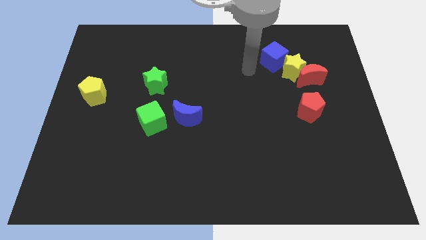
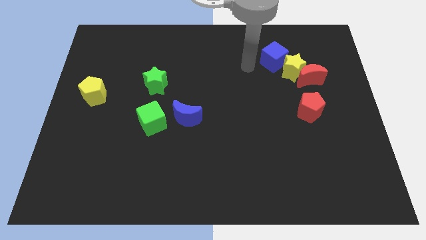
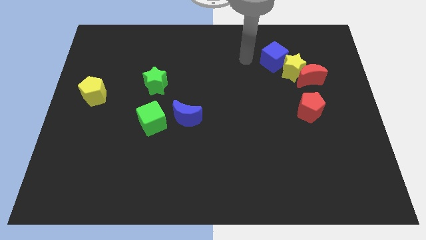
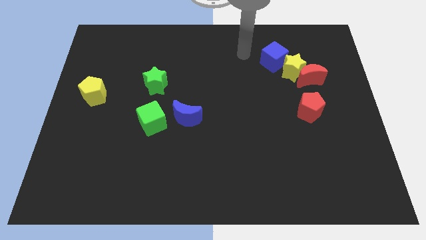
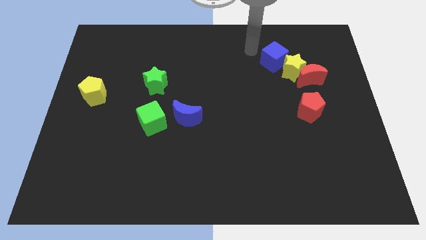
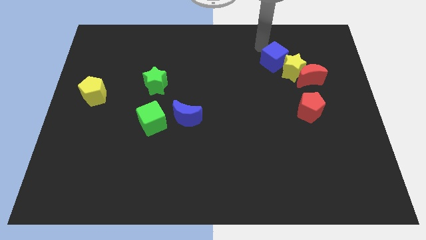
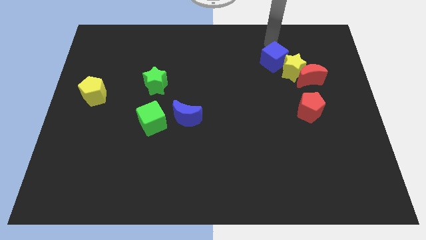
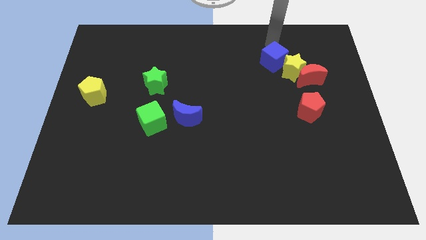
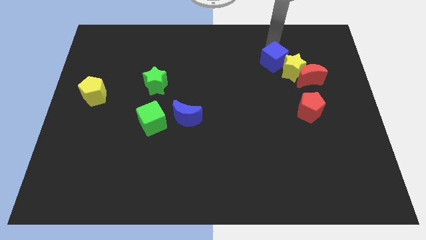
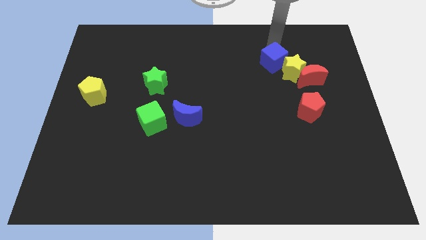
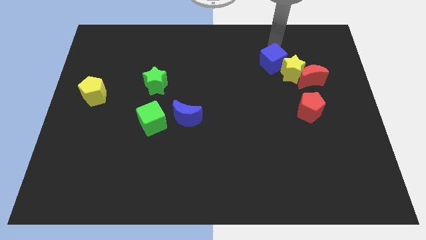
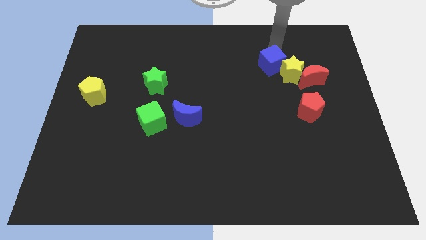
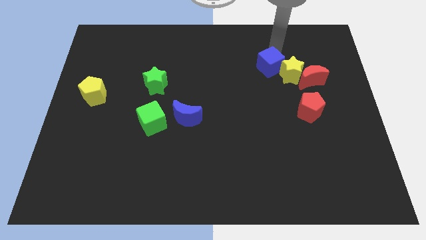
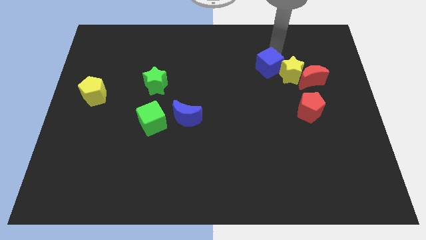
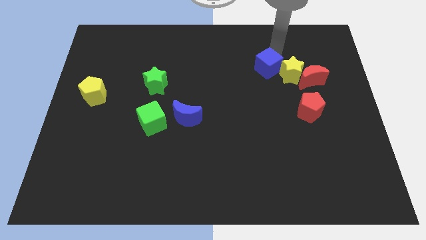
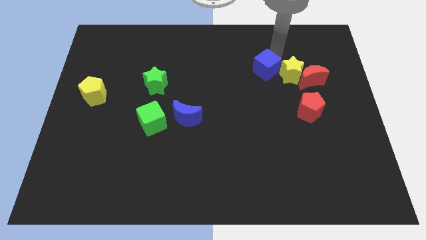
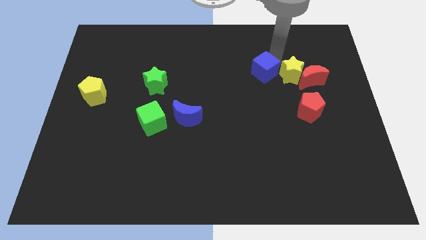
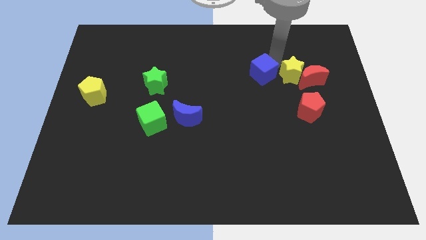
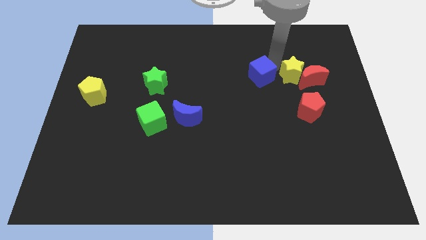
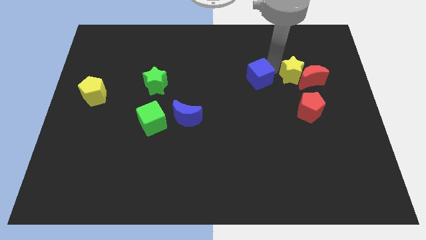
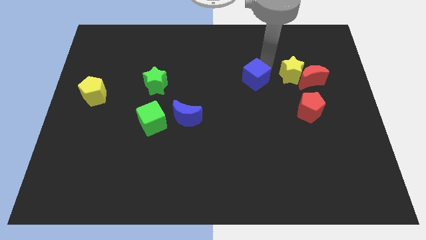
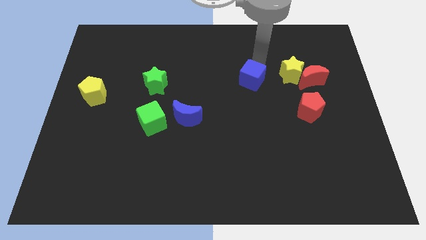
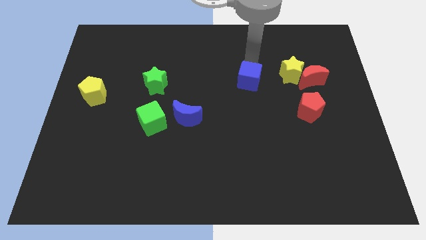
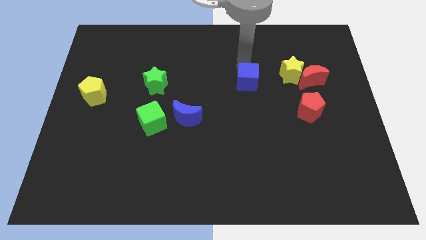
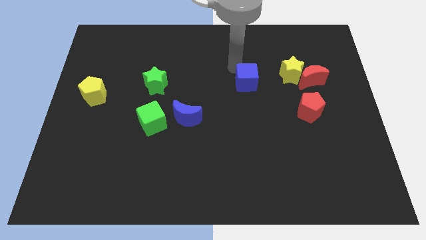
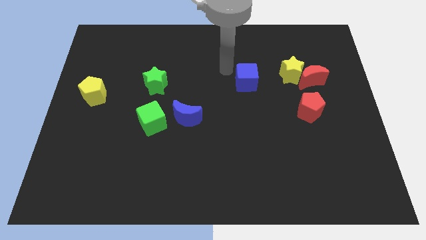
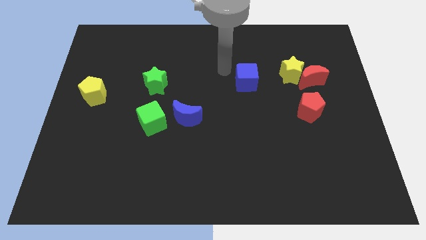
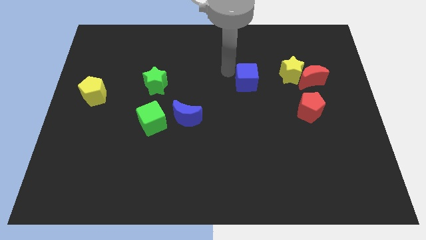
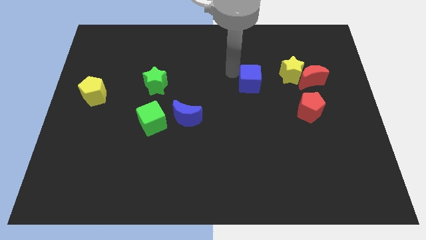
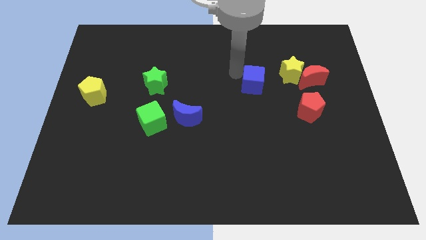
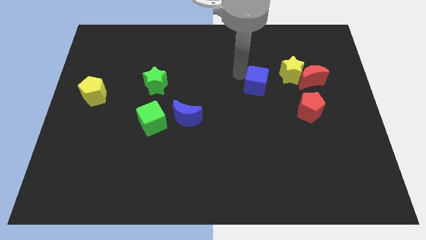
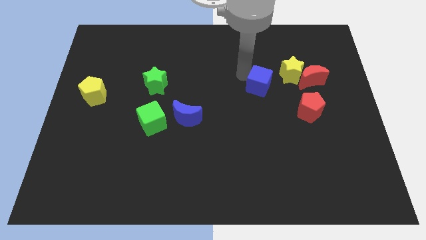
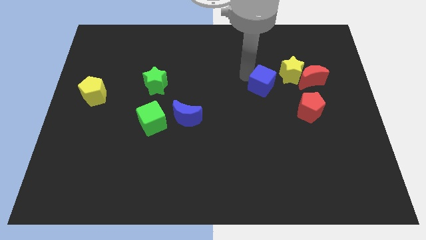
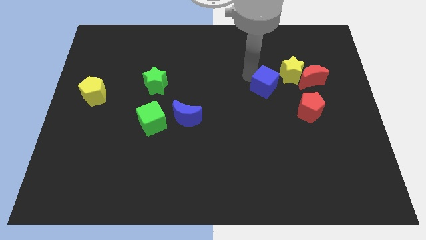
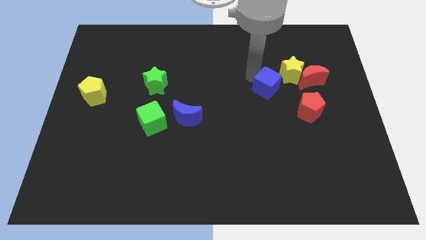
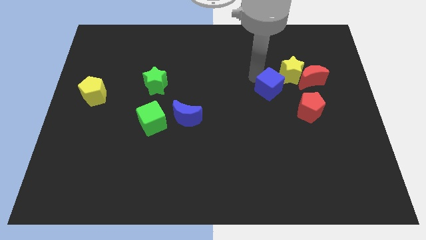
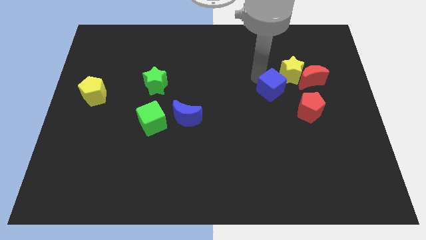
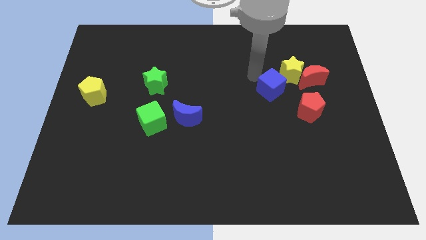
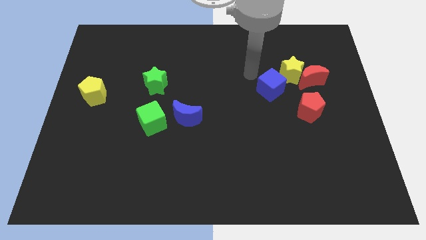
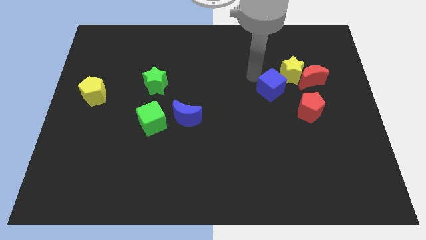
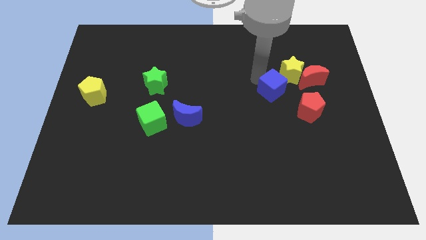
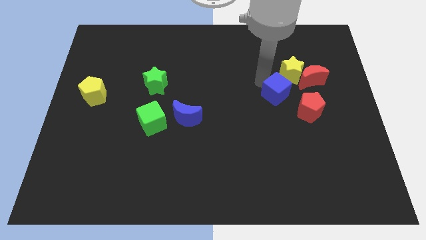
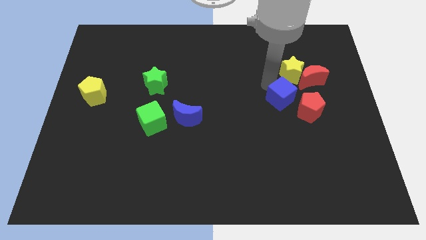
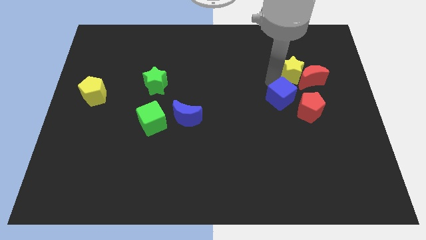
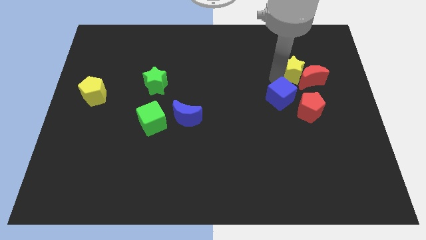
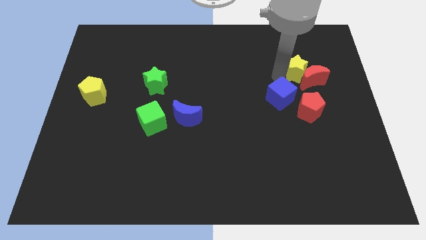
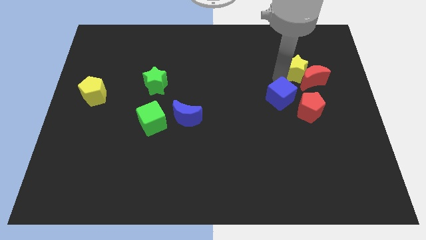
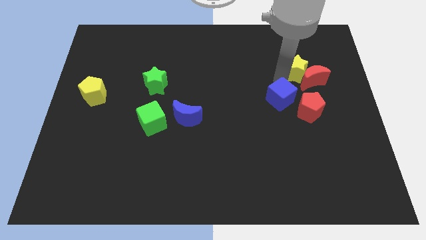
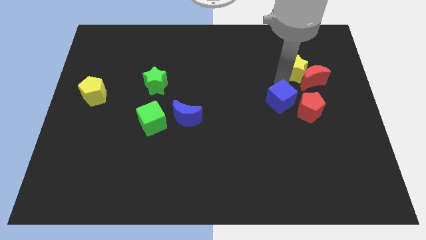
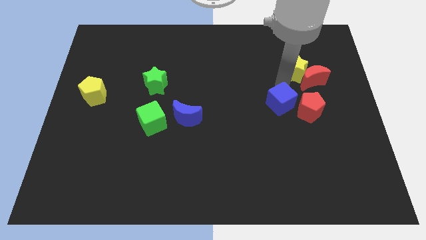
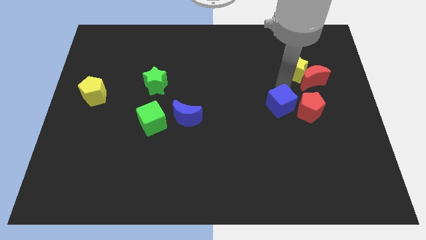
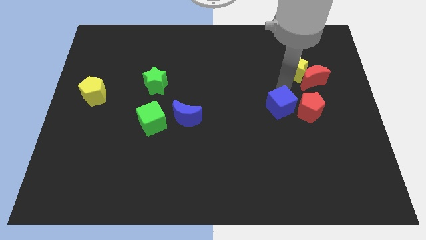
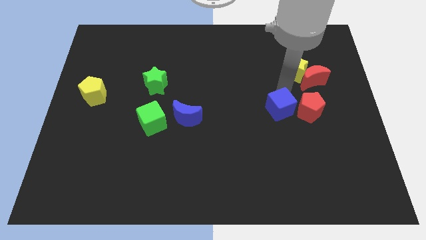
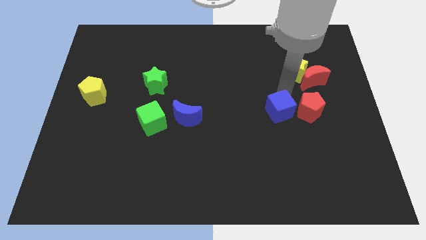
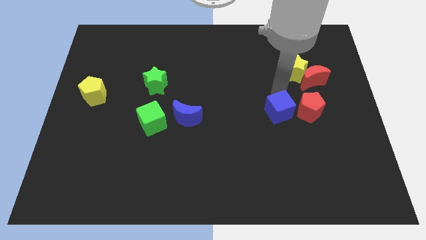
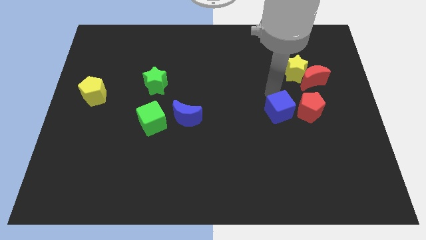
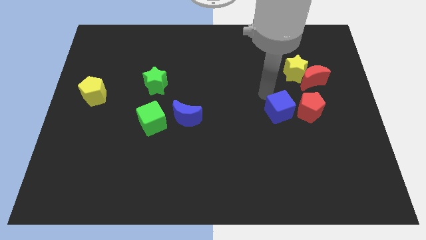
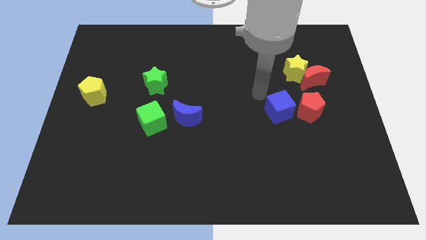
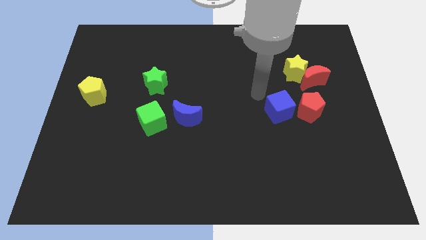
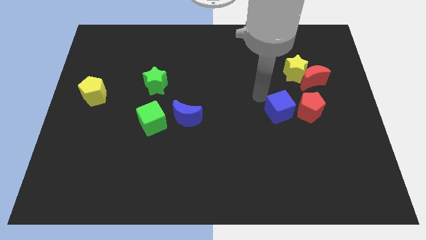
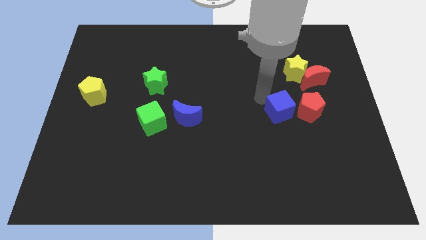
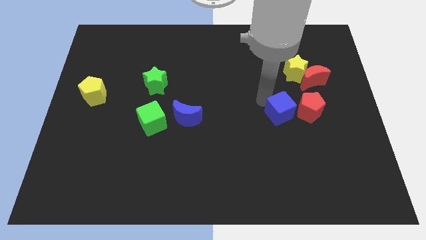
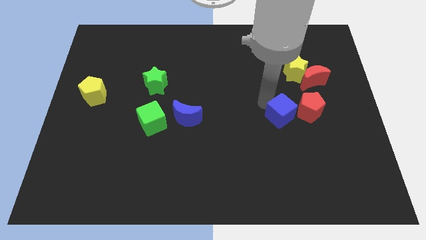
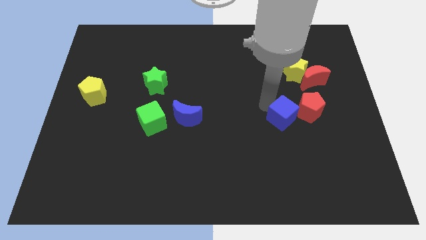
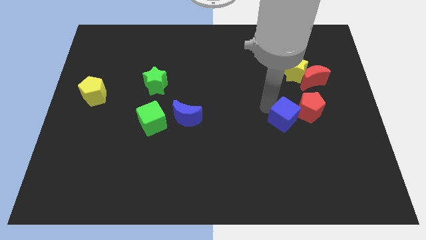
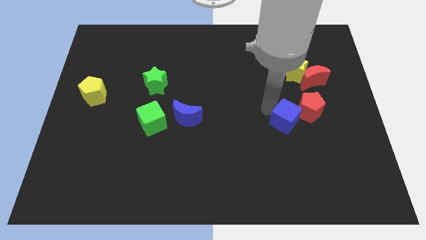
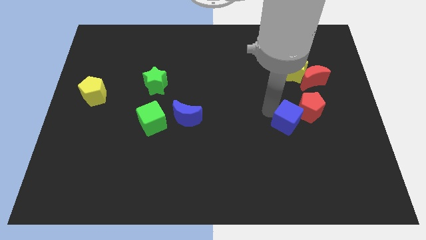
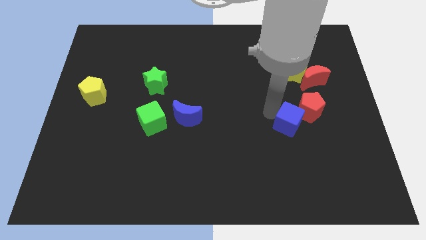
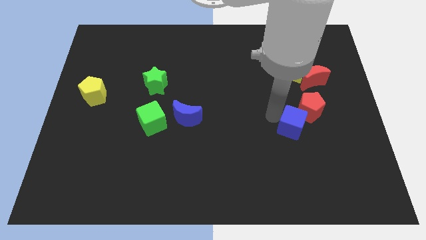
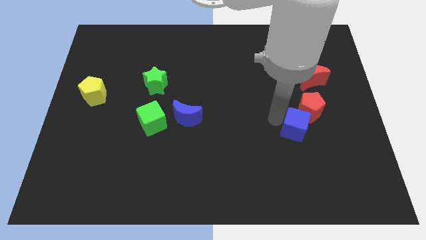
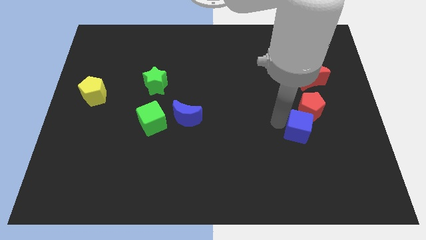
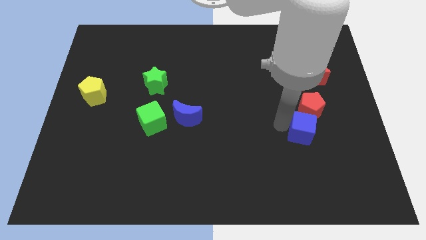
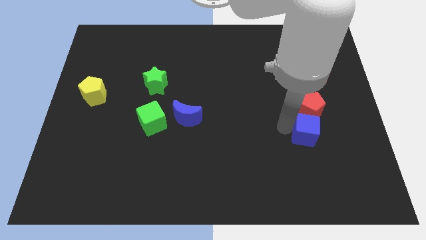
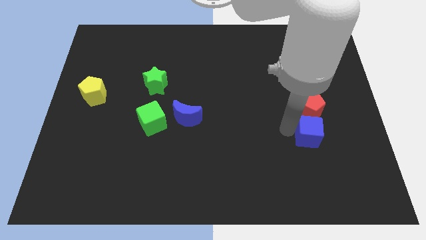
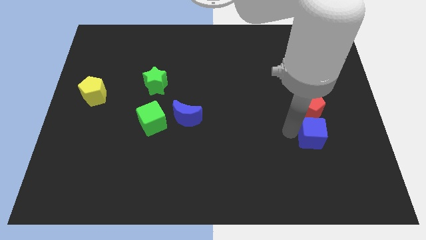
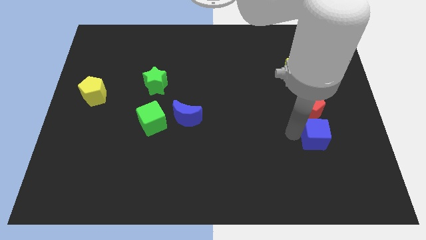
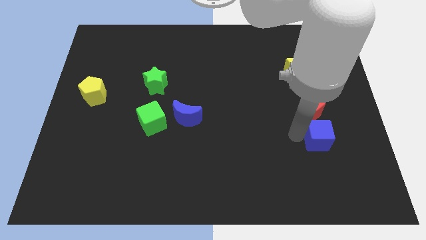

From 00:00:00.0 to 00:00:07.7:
push the blue cube diagonally down and to the right of the red pentagon
